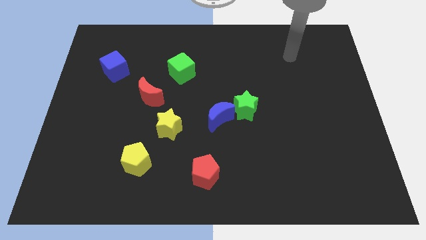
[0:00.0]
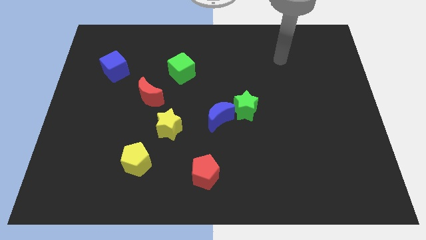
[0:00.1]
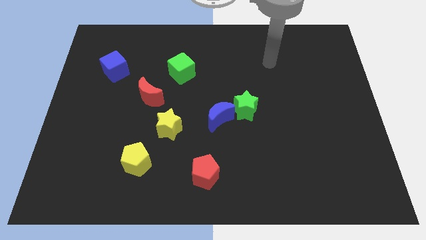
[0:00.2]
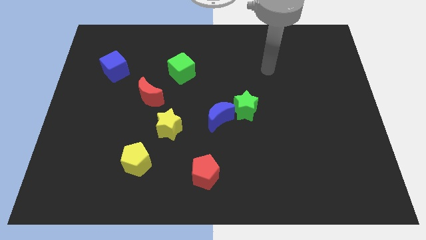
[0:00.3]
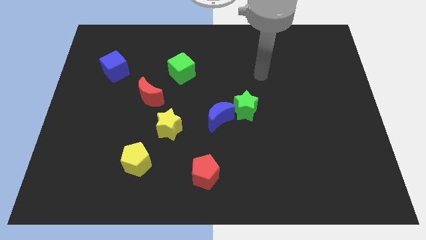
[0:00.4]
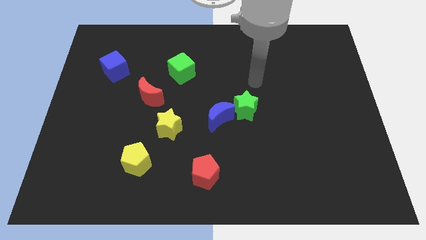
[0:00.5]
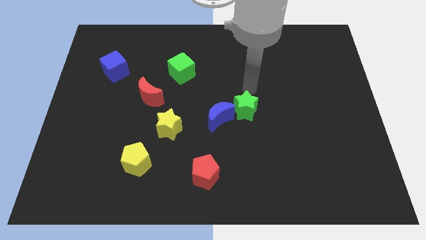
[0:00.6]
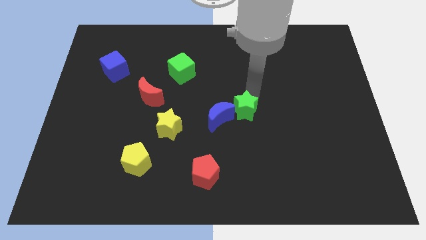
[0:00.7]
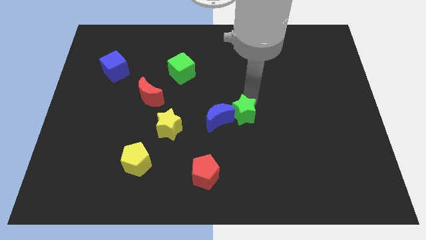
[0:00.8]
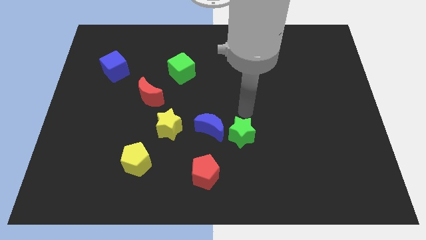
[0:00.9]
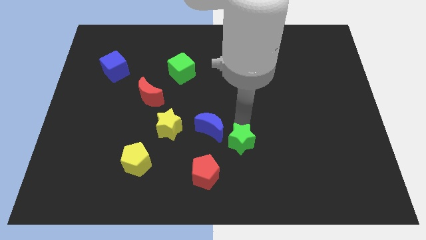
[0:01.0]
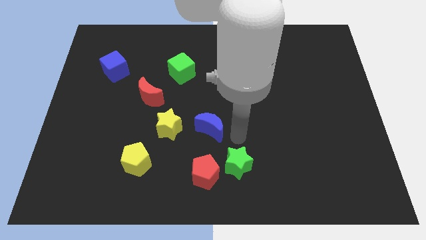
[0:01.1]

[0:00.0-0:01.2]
pull the blue moon apart from the green star

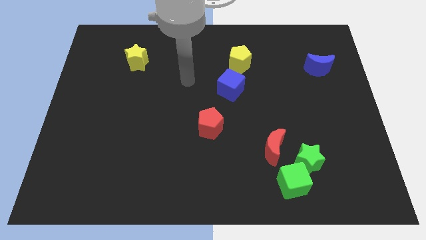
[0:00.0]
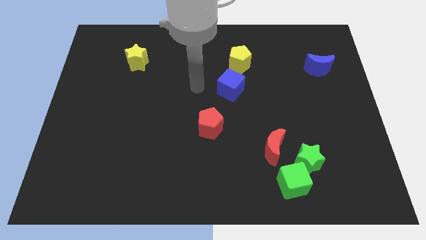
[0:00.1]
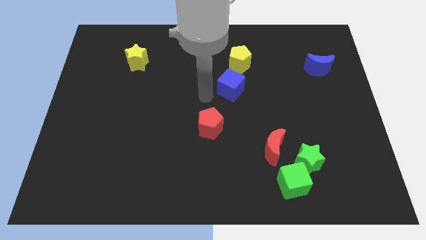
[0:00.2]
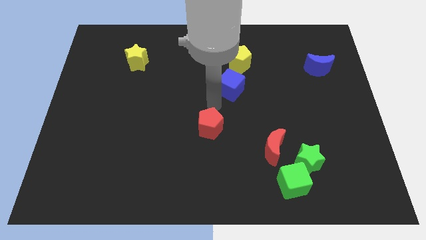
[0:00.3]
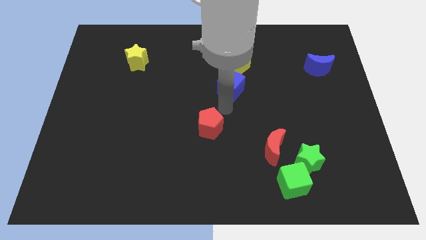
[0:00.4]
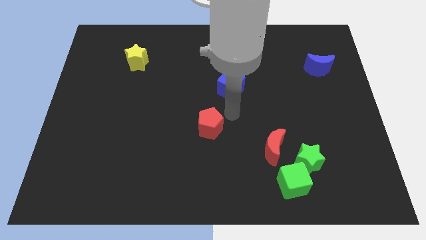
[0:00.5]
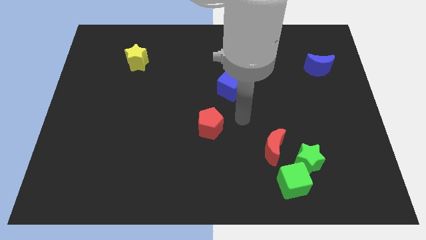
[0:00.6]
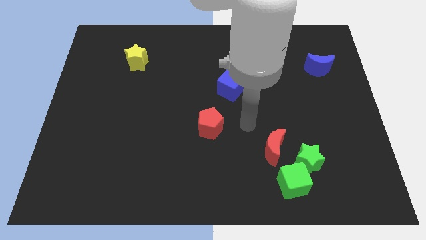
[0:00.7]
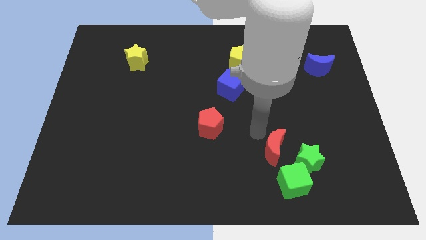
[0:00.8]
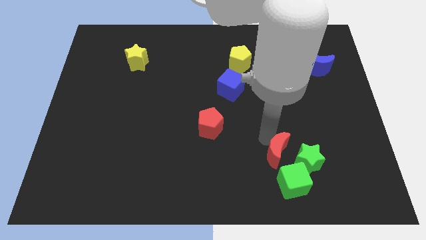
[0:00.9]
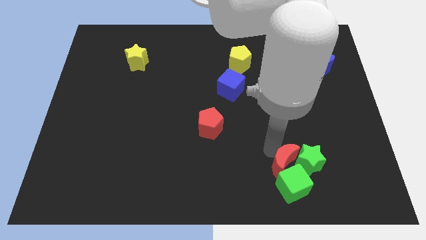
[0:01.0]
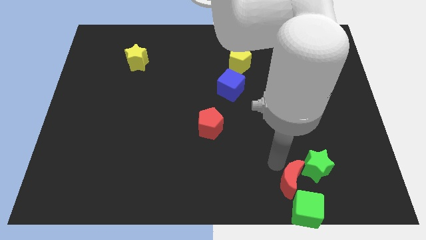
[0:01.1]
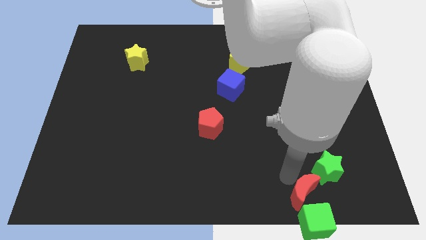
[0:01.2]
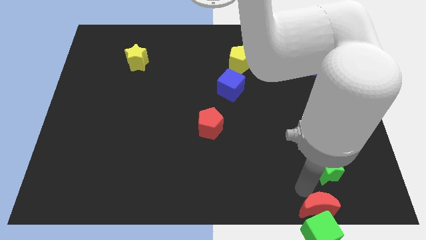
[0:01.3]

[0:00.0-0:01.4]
move the green star away from the green cube and red moon

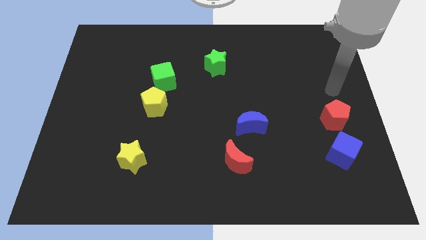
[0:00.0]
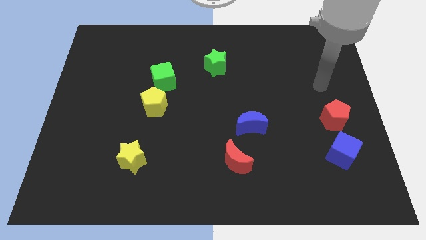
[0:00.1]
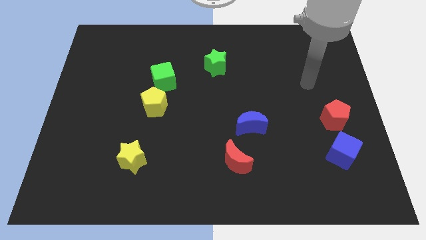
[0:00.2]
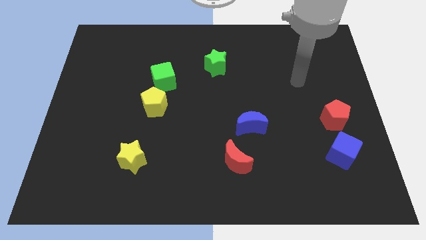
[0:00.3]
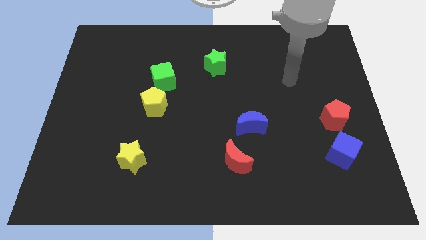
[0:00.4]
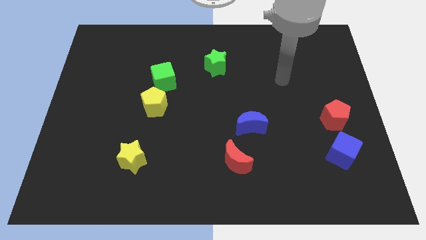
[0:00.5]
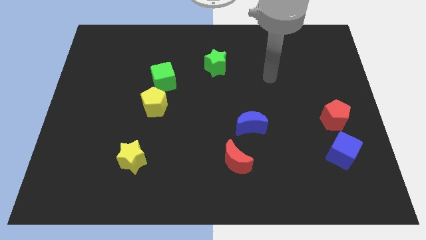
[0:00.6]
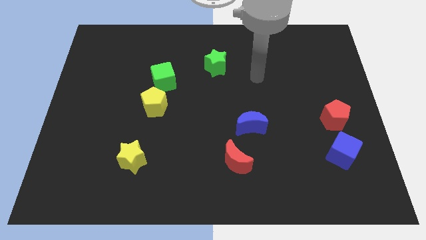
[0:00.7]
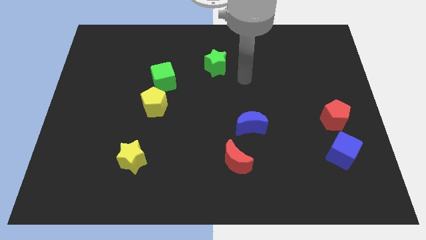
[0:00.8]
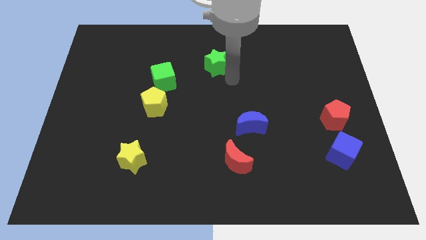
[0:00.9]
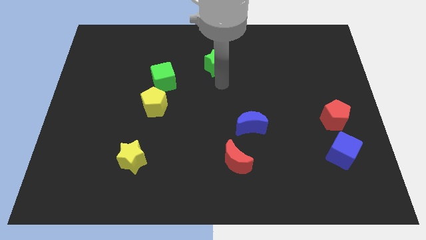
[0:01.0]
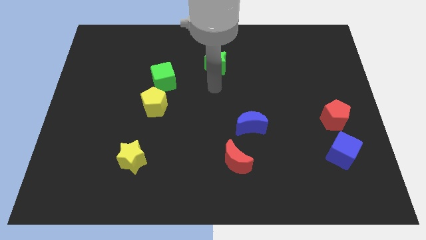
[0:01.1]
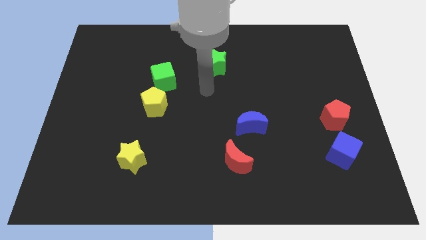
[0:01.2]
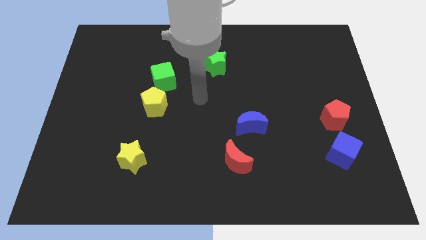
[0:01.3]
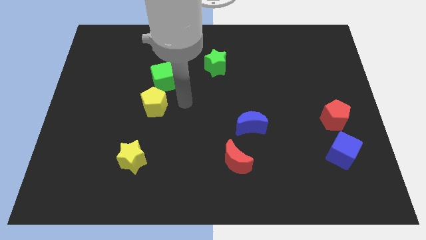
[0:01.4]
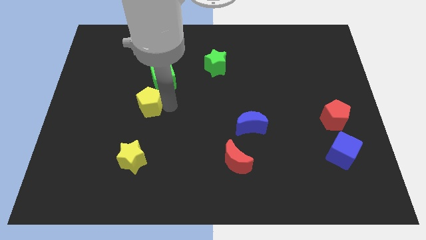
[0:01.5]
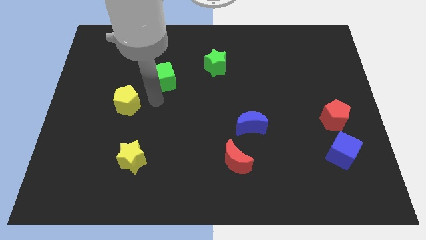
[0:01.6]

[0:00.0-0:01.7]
separate the green cube from the yellow pentagon

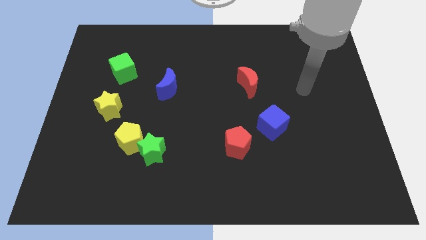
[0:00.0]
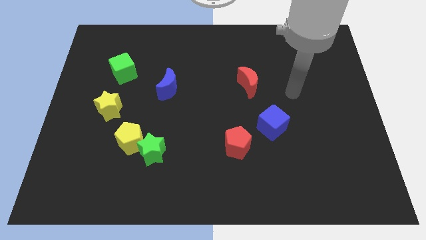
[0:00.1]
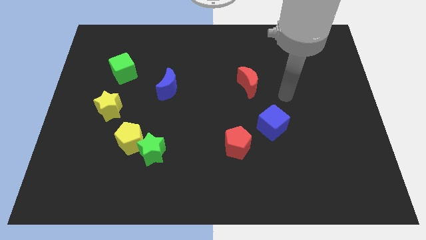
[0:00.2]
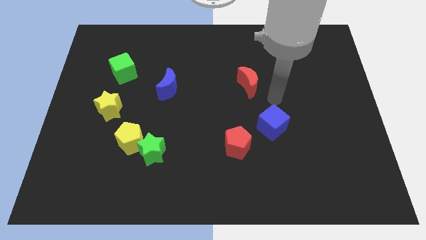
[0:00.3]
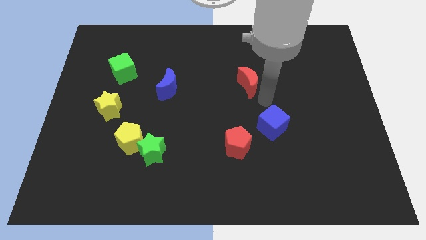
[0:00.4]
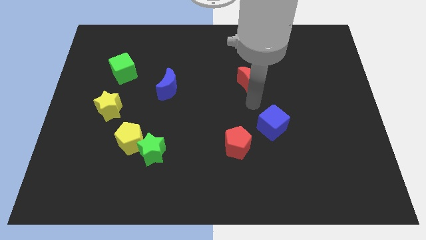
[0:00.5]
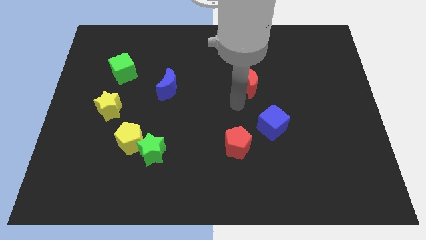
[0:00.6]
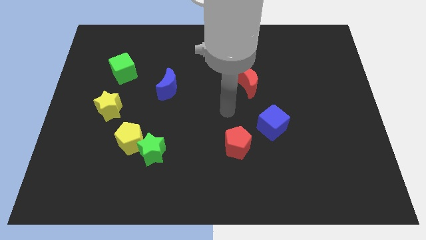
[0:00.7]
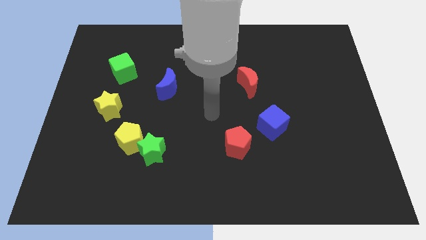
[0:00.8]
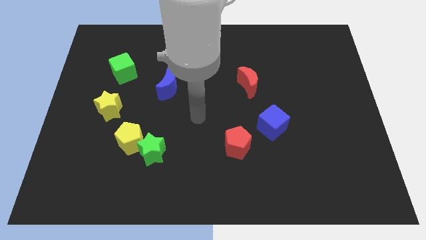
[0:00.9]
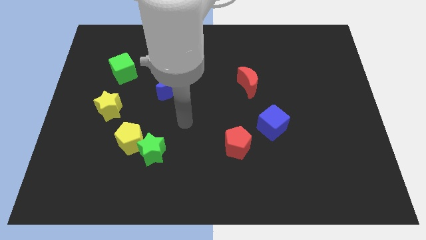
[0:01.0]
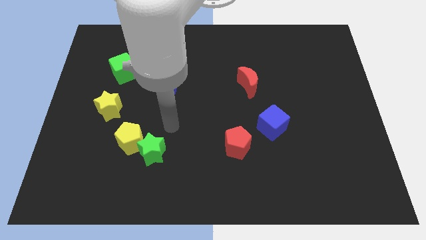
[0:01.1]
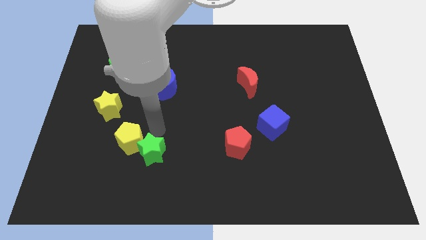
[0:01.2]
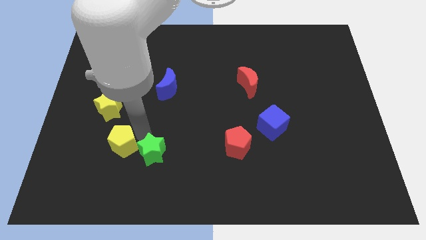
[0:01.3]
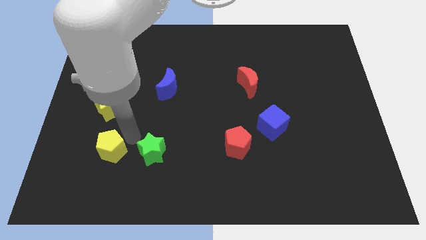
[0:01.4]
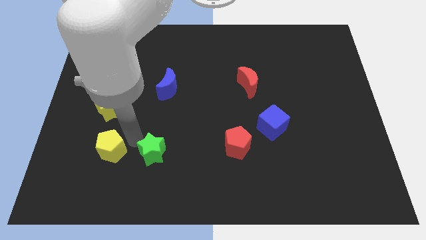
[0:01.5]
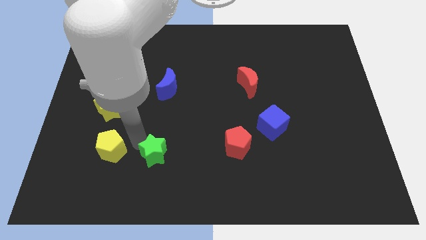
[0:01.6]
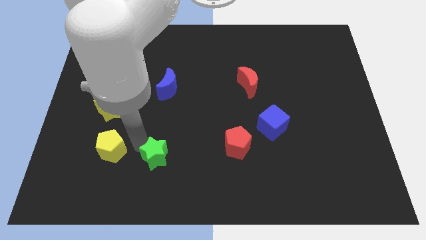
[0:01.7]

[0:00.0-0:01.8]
pull the green star apart from the yellow pentagon

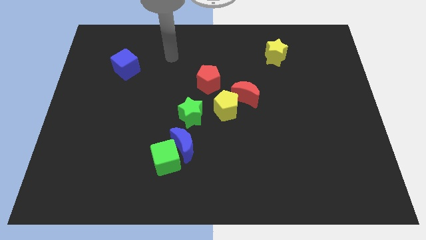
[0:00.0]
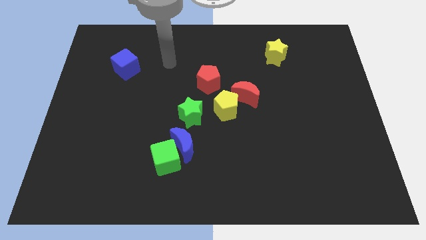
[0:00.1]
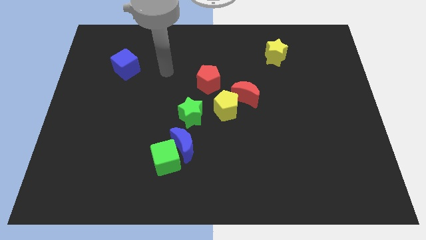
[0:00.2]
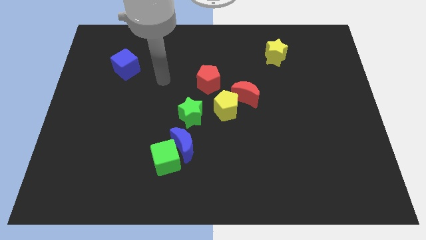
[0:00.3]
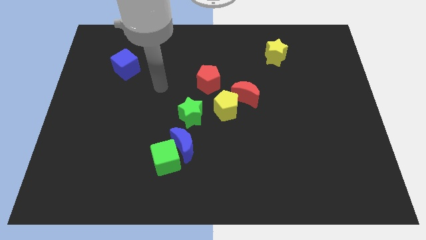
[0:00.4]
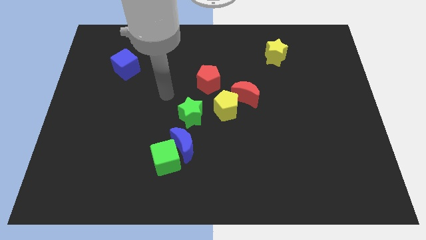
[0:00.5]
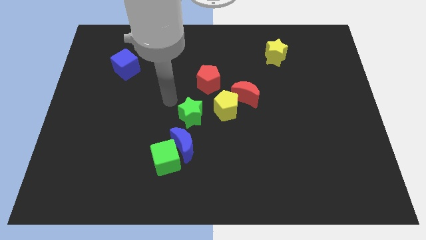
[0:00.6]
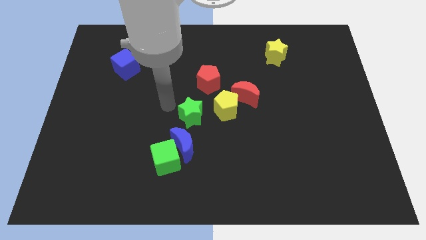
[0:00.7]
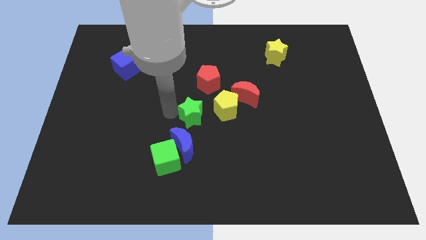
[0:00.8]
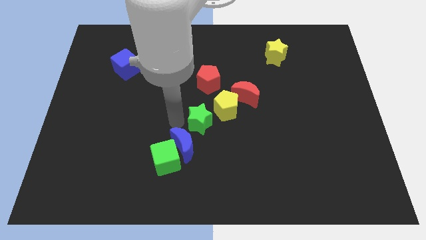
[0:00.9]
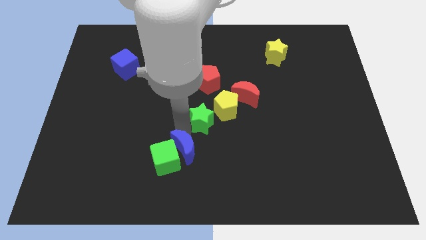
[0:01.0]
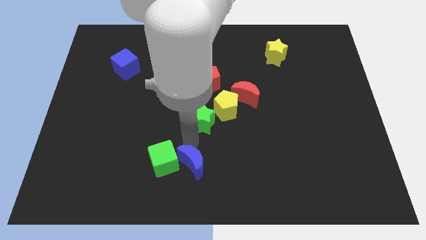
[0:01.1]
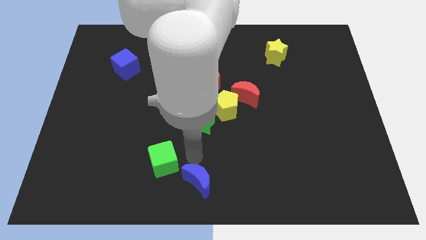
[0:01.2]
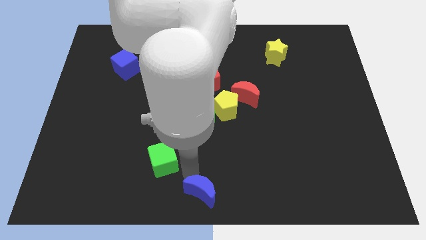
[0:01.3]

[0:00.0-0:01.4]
move the green cube away from the blue moon

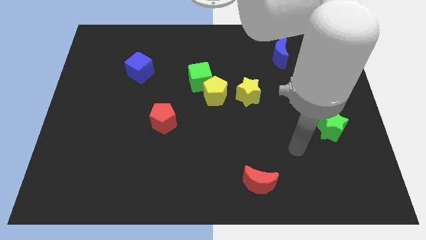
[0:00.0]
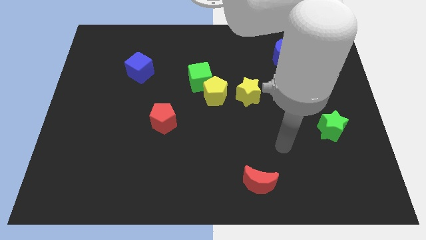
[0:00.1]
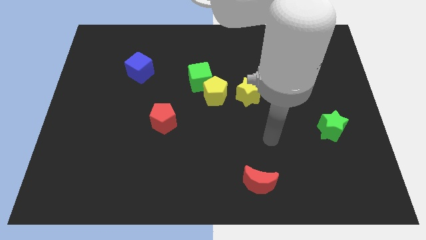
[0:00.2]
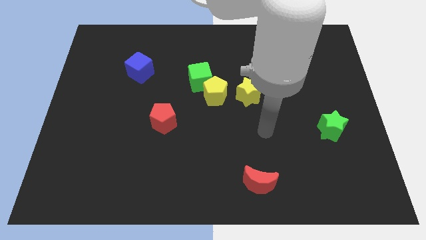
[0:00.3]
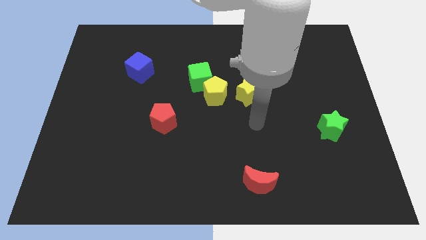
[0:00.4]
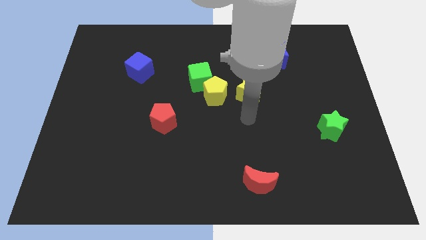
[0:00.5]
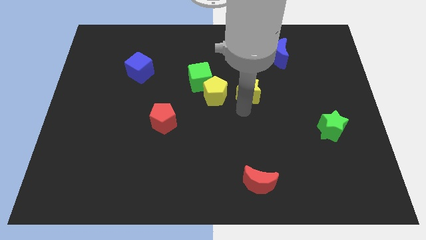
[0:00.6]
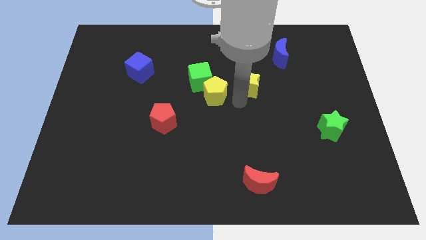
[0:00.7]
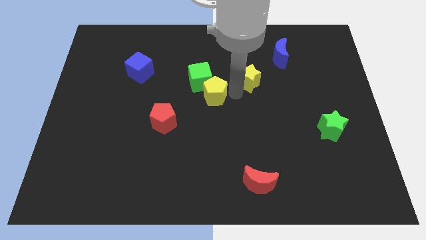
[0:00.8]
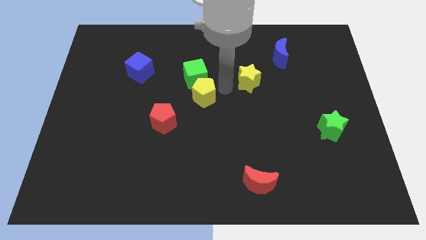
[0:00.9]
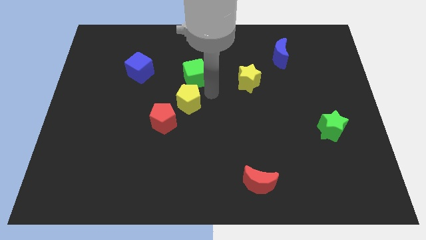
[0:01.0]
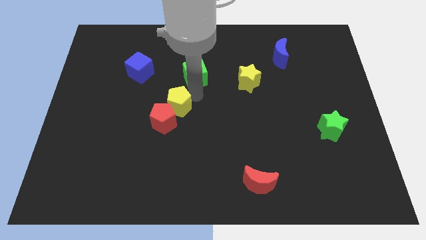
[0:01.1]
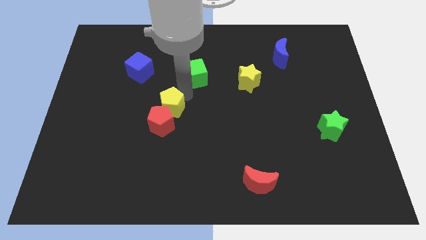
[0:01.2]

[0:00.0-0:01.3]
move the green cube away from the yellow pentagon

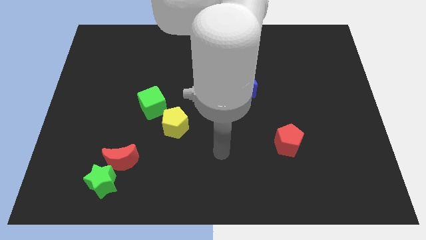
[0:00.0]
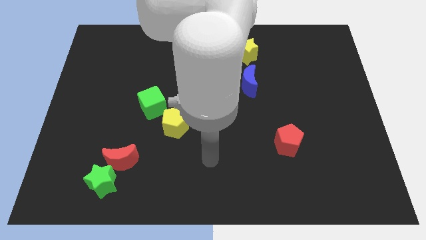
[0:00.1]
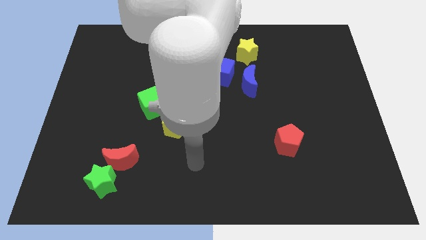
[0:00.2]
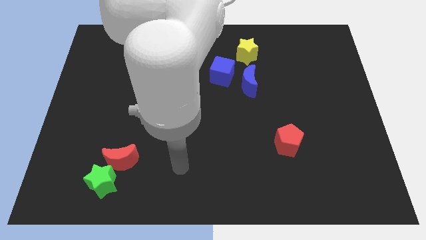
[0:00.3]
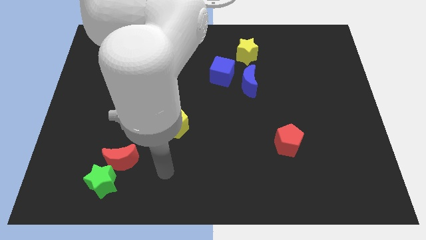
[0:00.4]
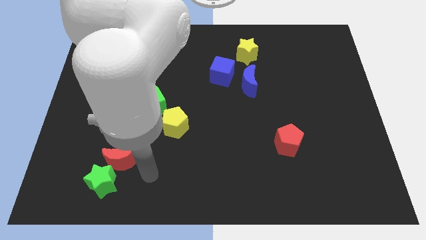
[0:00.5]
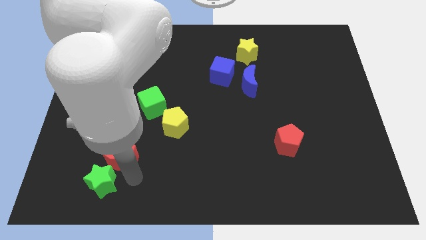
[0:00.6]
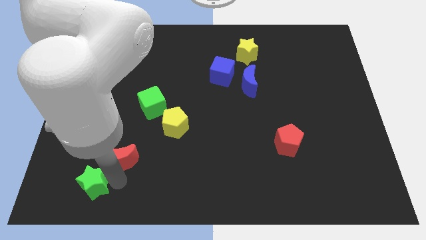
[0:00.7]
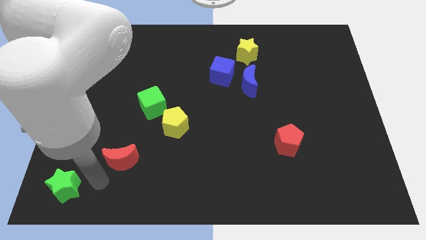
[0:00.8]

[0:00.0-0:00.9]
pull the red moon apart from the green star
